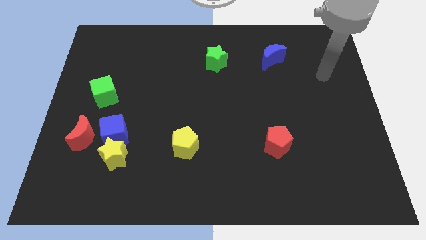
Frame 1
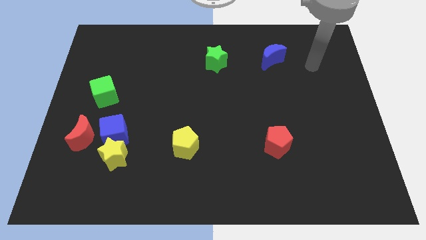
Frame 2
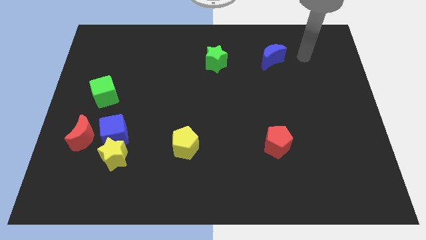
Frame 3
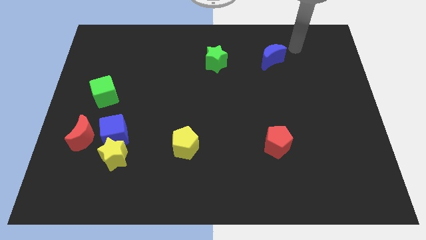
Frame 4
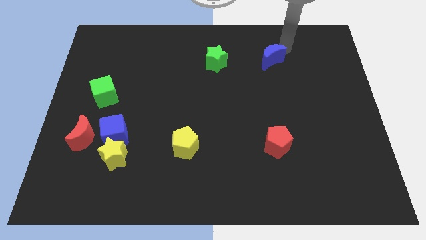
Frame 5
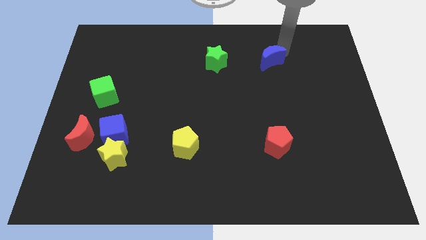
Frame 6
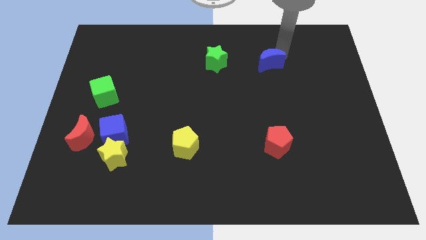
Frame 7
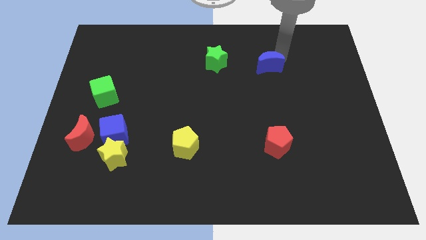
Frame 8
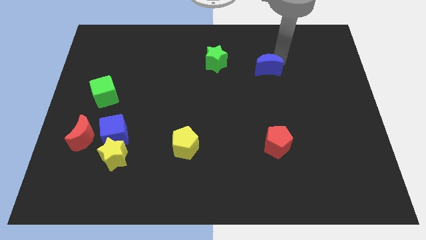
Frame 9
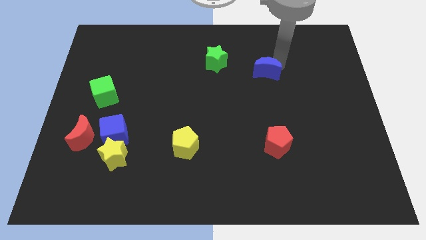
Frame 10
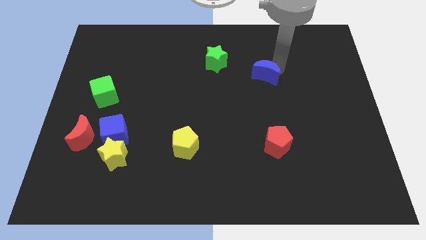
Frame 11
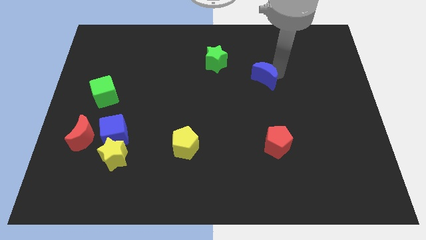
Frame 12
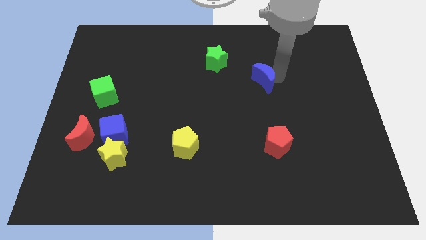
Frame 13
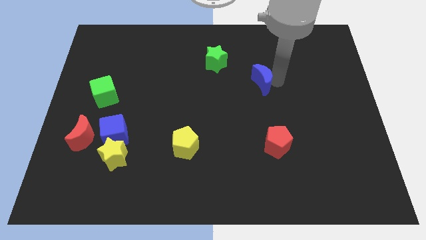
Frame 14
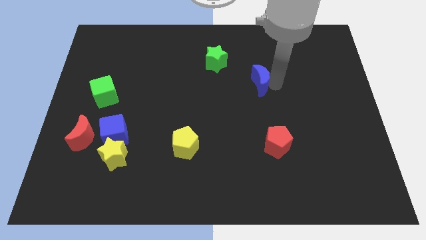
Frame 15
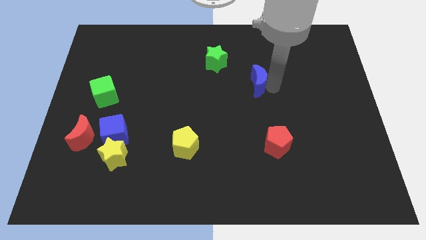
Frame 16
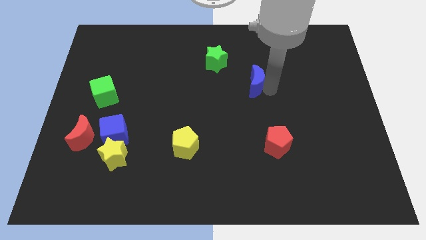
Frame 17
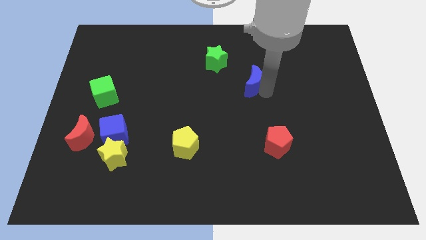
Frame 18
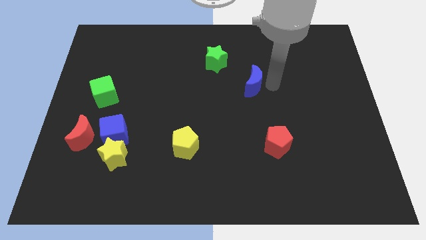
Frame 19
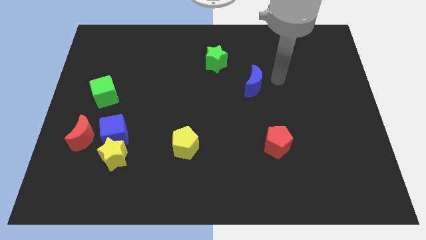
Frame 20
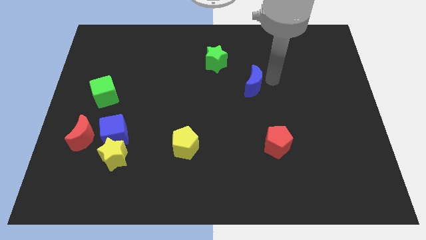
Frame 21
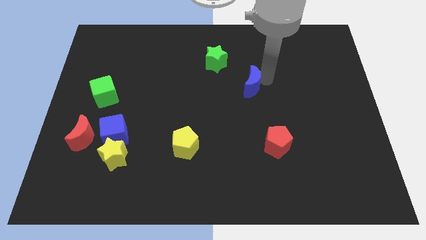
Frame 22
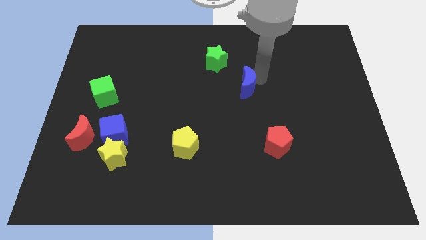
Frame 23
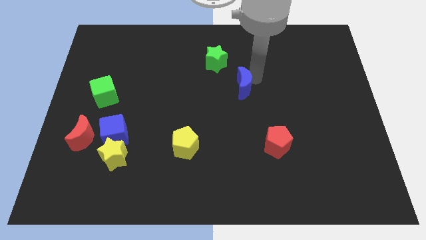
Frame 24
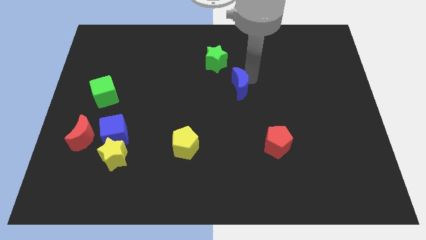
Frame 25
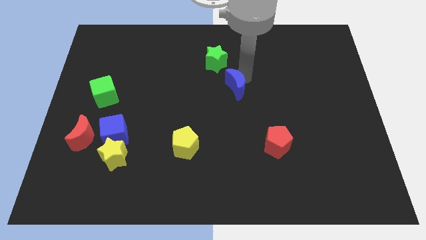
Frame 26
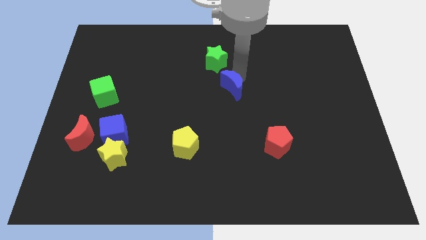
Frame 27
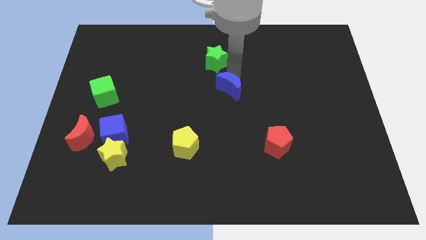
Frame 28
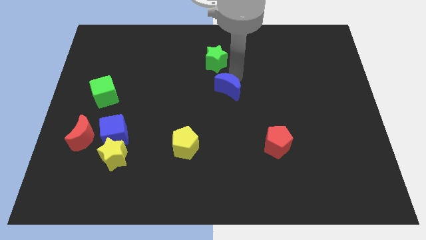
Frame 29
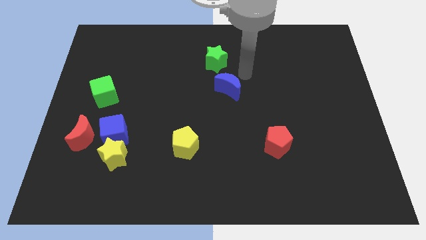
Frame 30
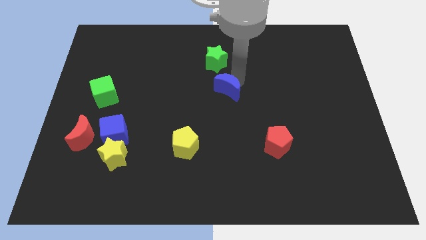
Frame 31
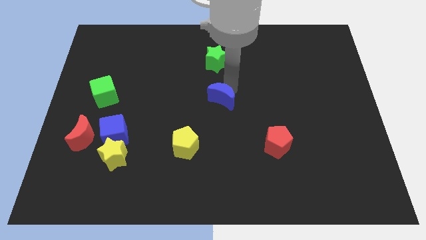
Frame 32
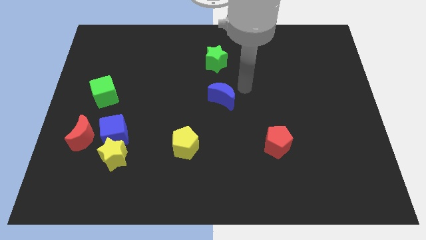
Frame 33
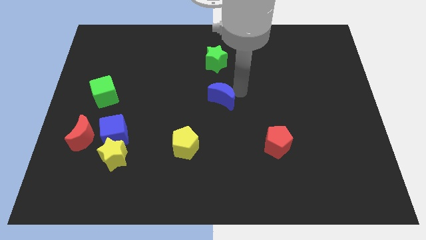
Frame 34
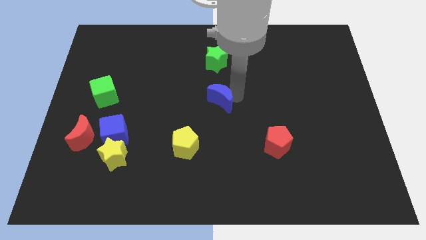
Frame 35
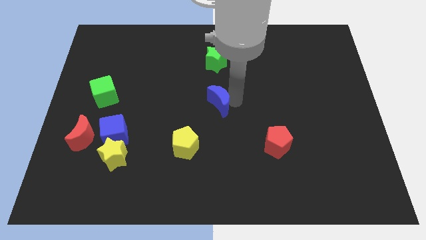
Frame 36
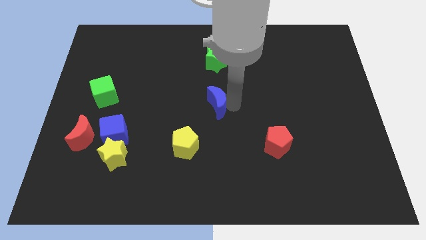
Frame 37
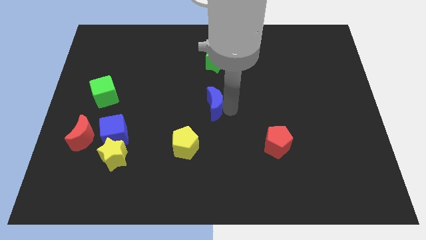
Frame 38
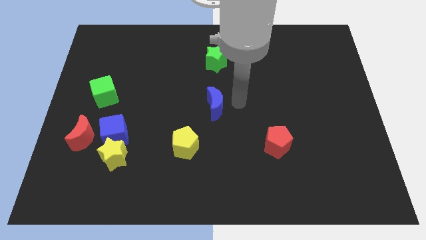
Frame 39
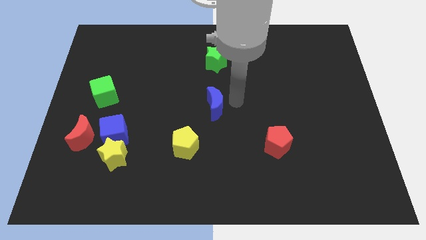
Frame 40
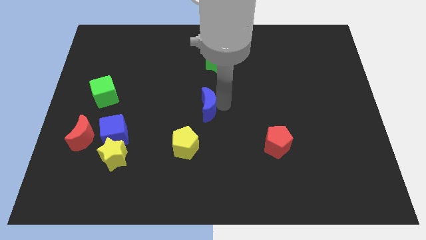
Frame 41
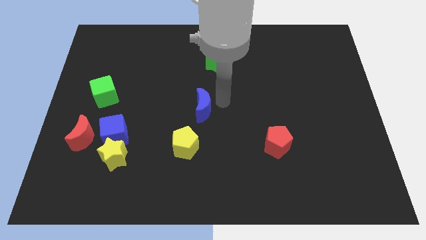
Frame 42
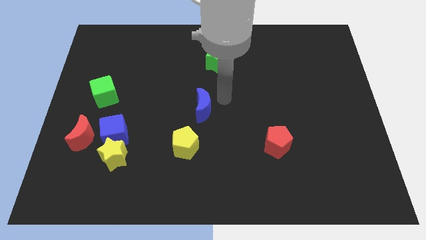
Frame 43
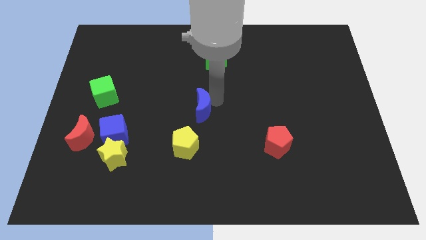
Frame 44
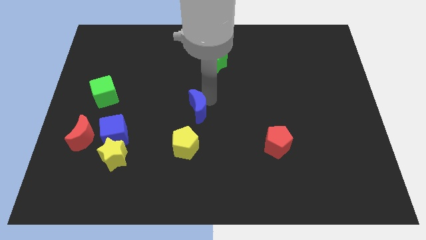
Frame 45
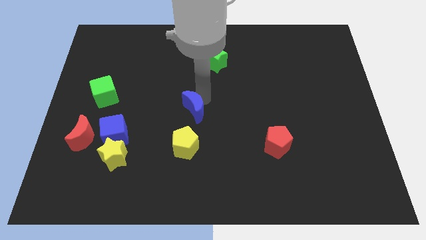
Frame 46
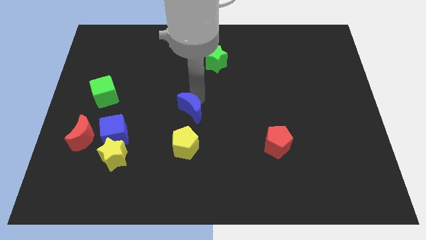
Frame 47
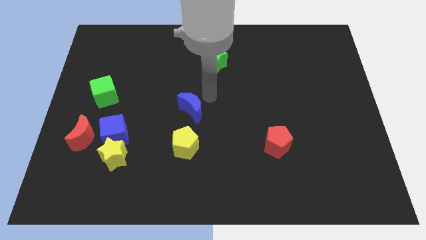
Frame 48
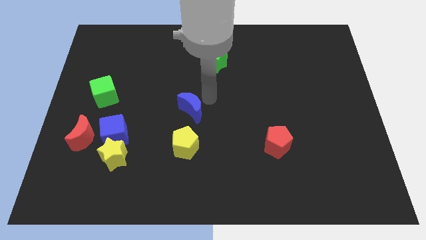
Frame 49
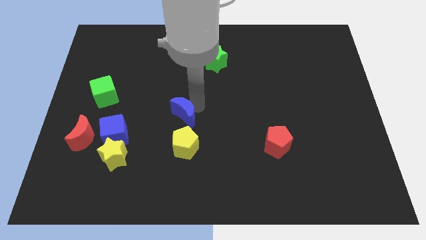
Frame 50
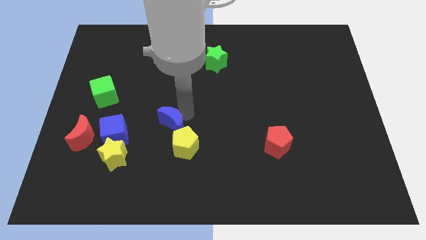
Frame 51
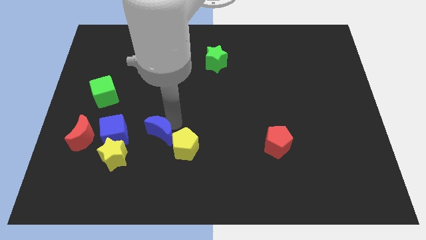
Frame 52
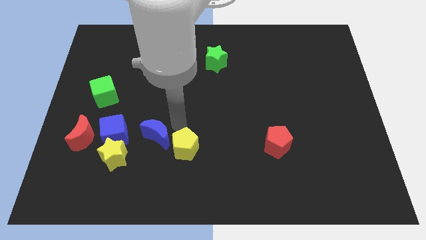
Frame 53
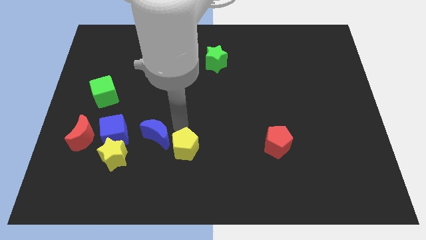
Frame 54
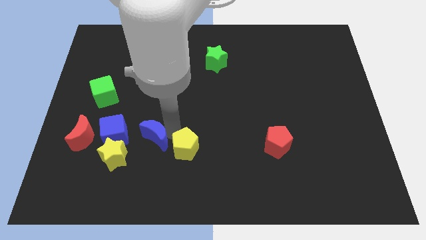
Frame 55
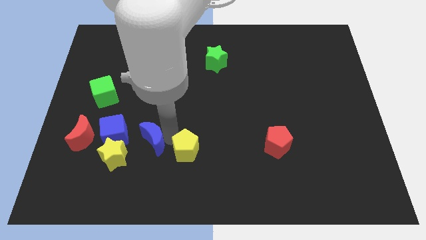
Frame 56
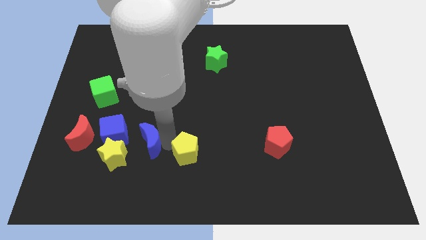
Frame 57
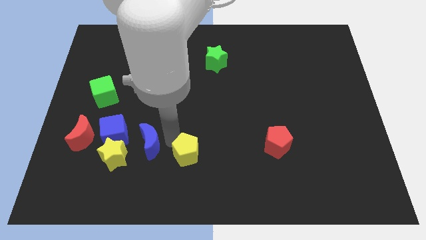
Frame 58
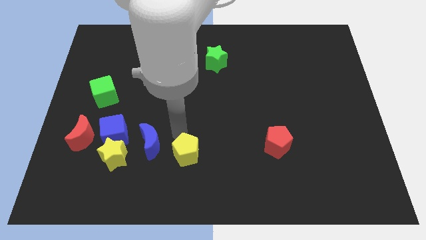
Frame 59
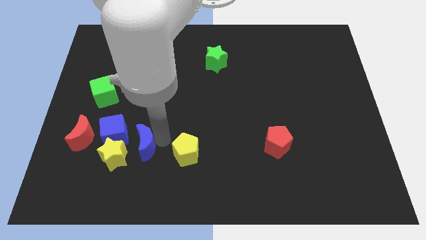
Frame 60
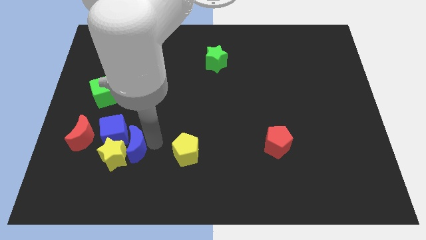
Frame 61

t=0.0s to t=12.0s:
slide the blue moon next to the yellow star
